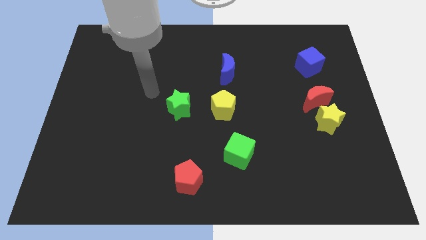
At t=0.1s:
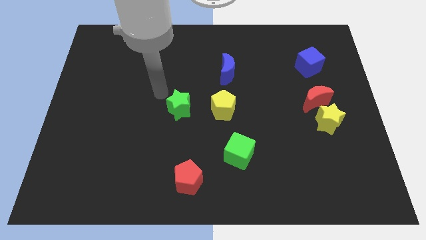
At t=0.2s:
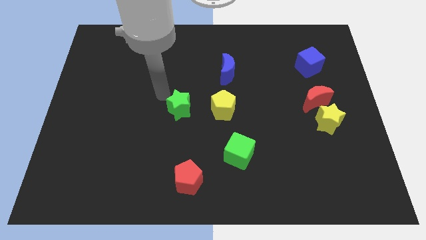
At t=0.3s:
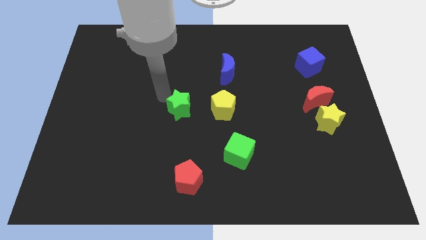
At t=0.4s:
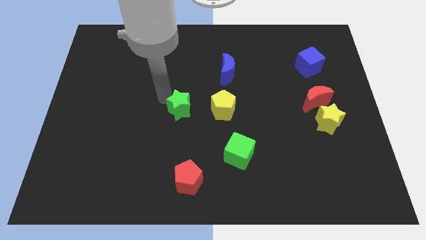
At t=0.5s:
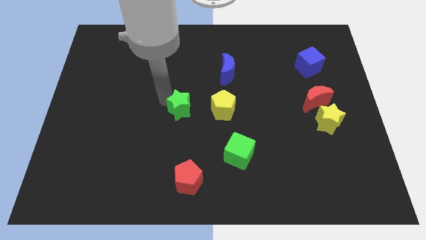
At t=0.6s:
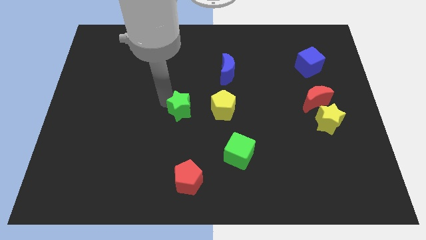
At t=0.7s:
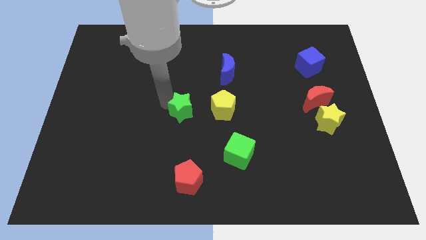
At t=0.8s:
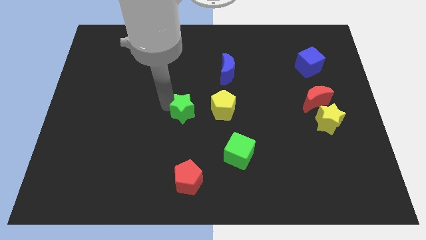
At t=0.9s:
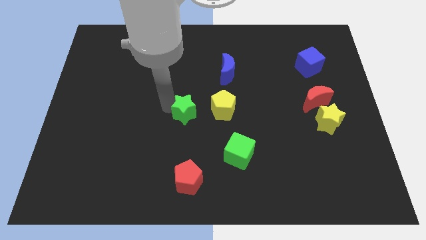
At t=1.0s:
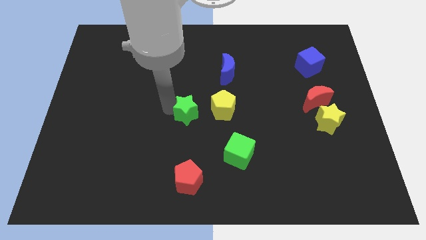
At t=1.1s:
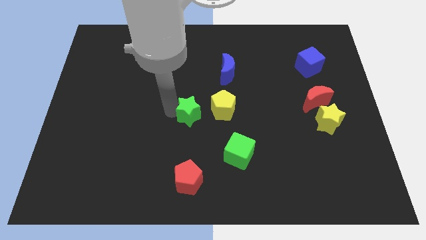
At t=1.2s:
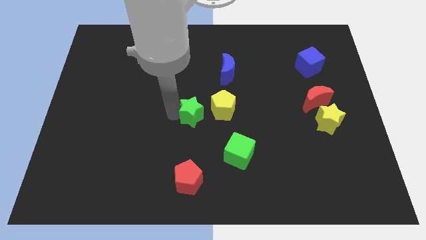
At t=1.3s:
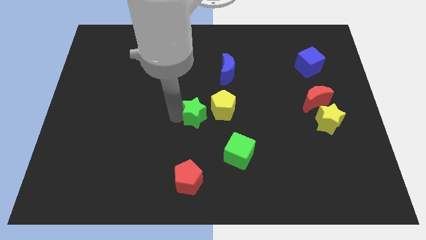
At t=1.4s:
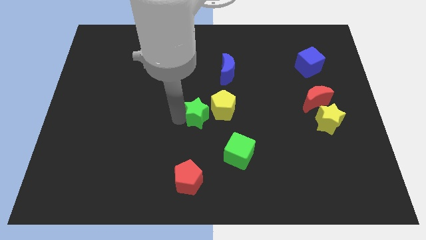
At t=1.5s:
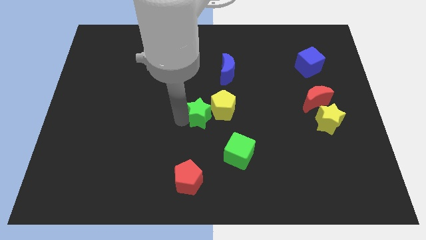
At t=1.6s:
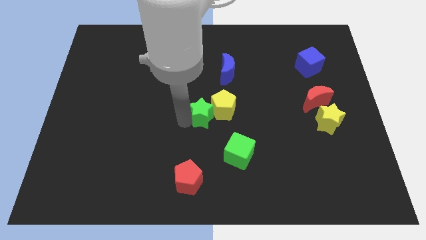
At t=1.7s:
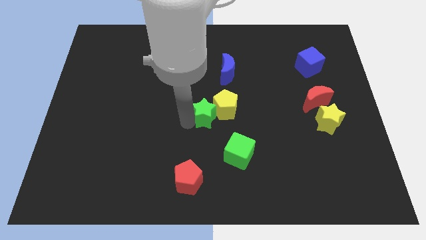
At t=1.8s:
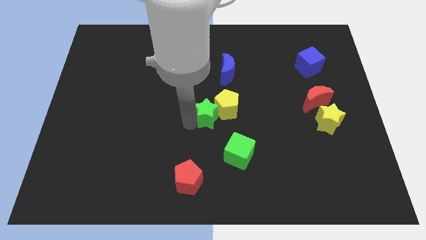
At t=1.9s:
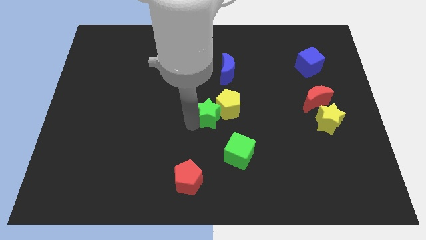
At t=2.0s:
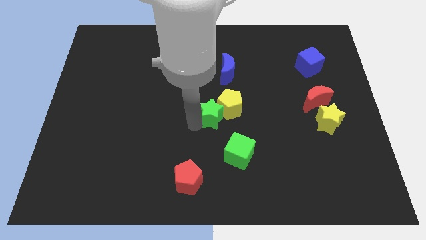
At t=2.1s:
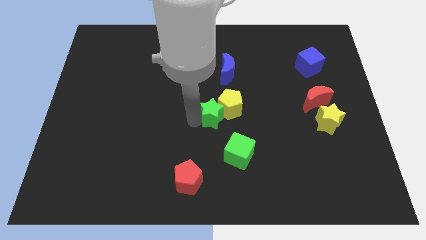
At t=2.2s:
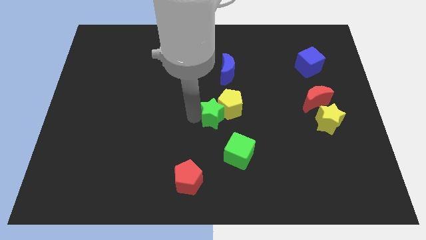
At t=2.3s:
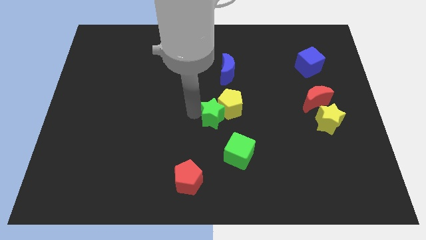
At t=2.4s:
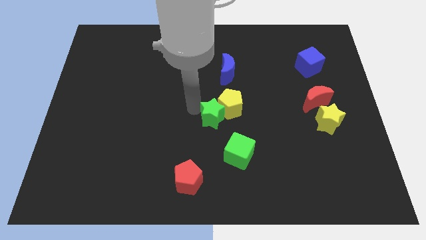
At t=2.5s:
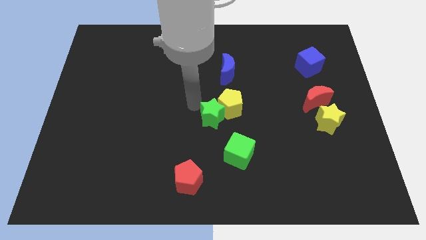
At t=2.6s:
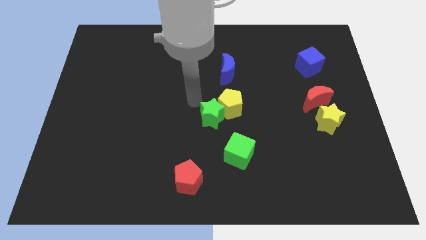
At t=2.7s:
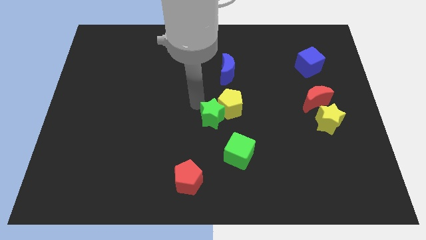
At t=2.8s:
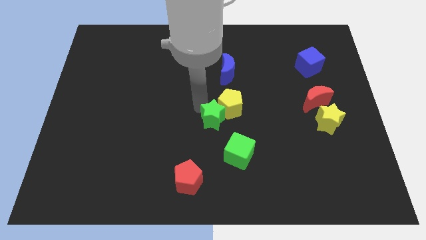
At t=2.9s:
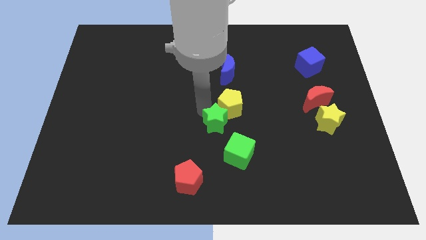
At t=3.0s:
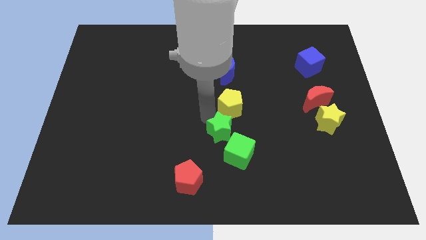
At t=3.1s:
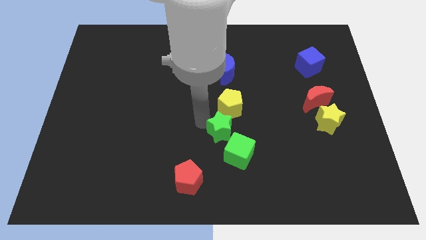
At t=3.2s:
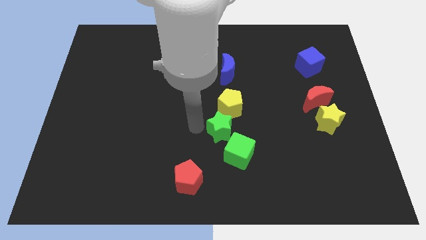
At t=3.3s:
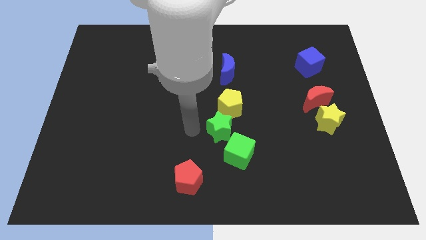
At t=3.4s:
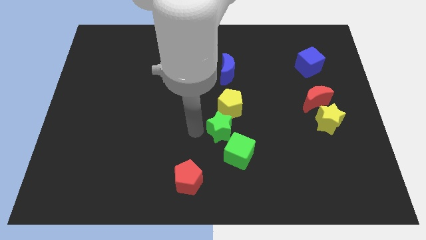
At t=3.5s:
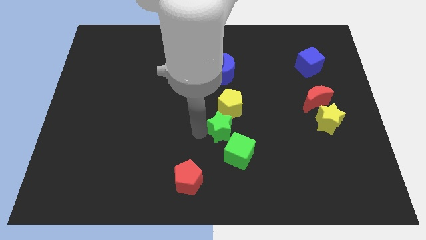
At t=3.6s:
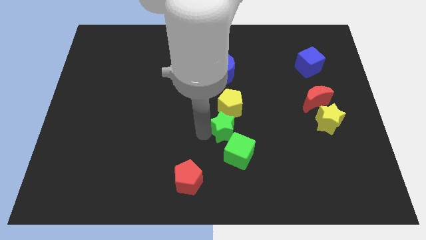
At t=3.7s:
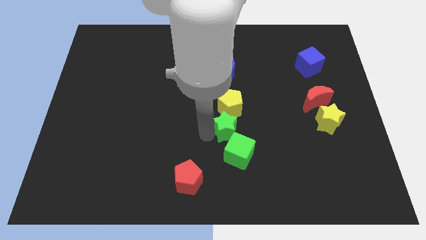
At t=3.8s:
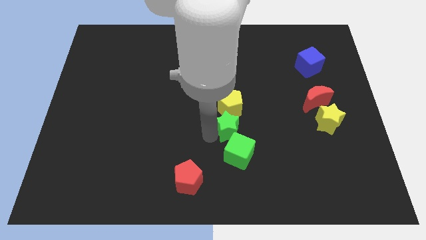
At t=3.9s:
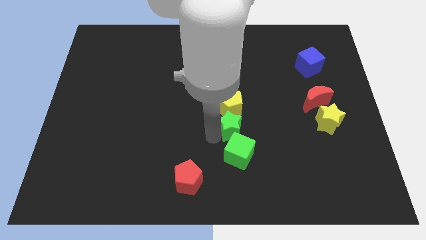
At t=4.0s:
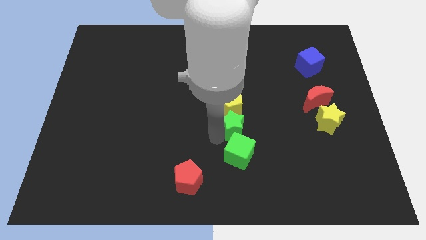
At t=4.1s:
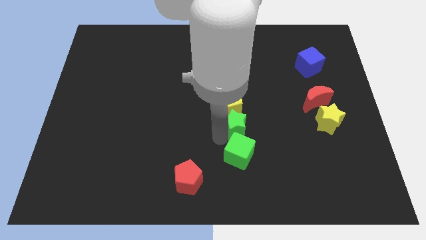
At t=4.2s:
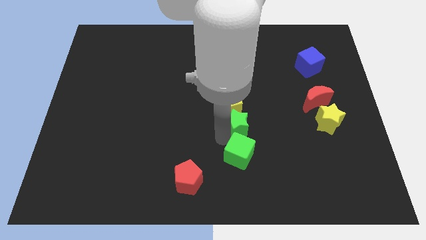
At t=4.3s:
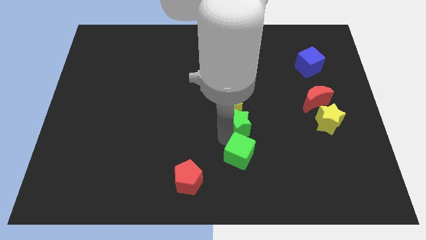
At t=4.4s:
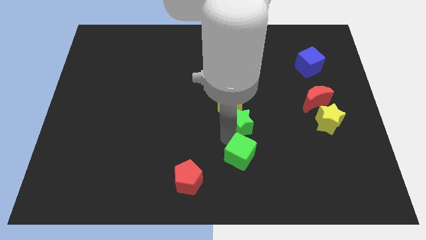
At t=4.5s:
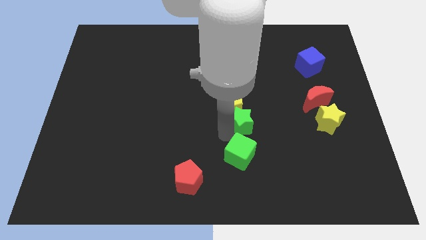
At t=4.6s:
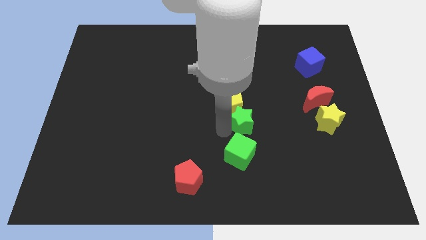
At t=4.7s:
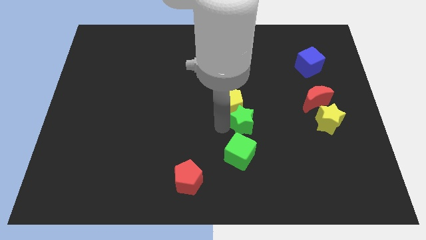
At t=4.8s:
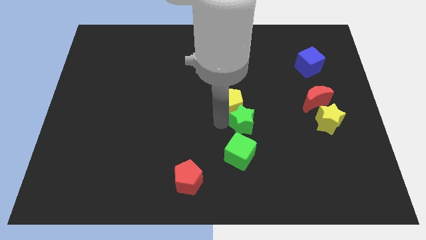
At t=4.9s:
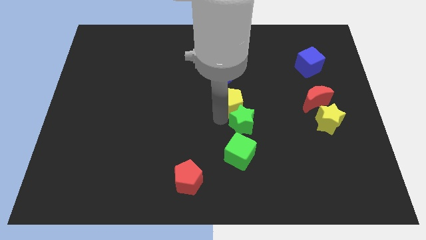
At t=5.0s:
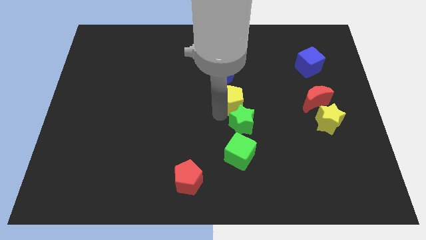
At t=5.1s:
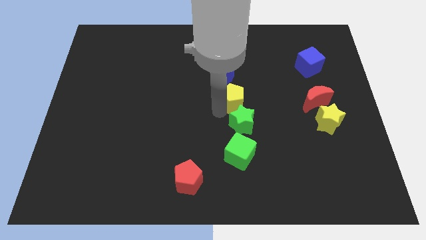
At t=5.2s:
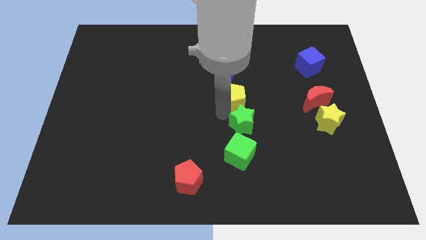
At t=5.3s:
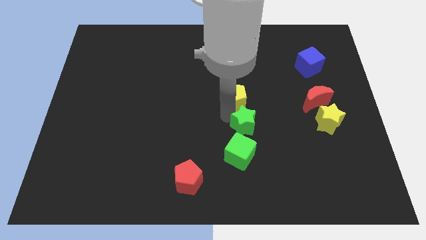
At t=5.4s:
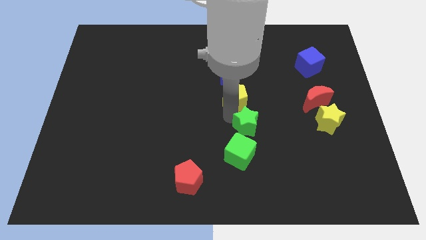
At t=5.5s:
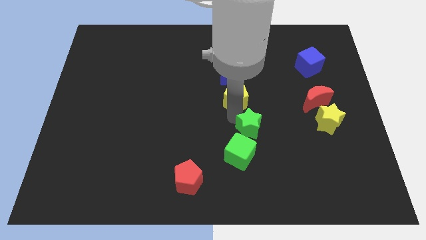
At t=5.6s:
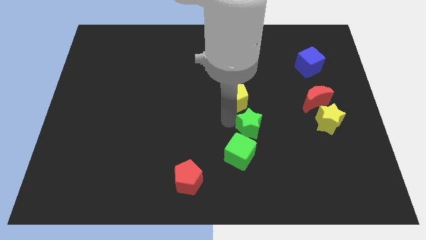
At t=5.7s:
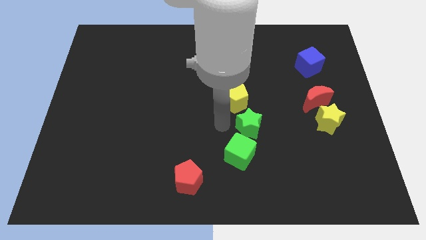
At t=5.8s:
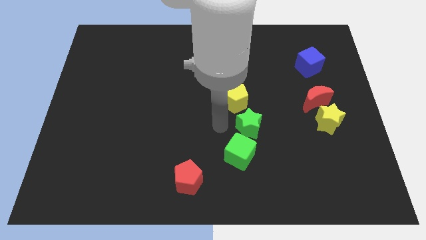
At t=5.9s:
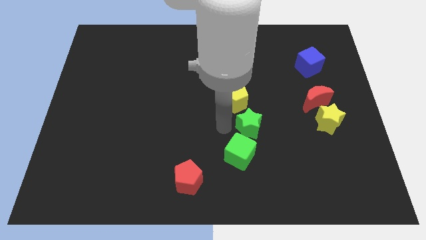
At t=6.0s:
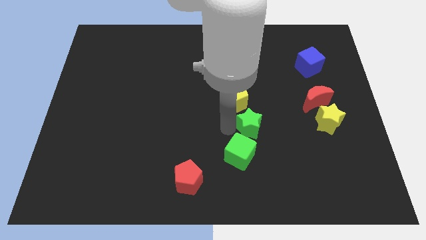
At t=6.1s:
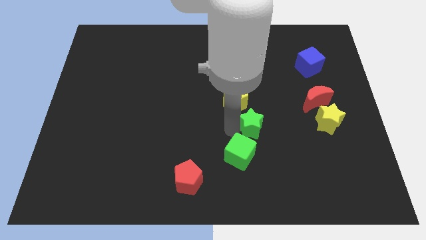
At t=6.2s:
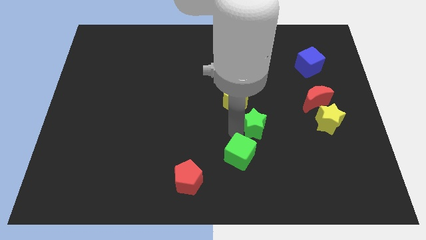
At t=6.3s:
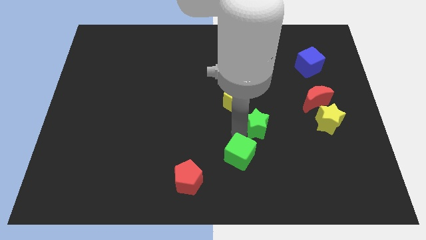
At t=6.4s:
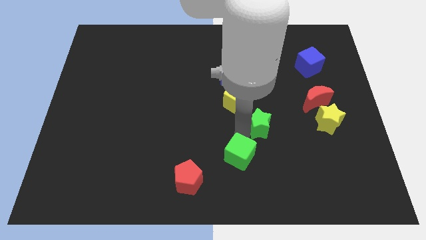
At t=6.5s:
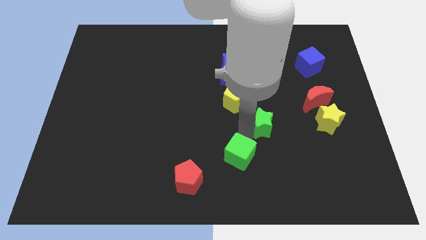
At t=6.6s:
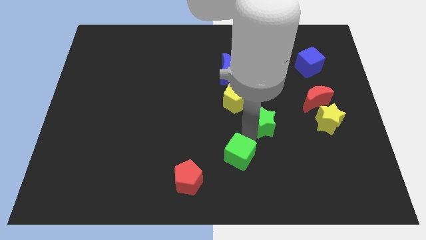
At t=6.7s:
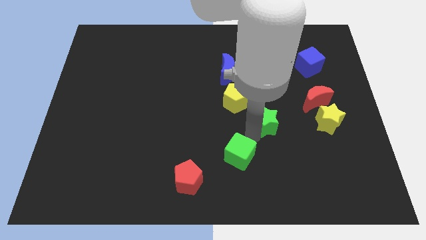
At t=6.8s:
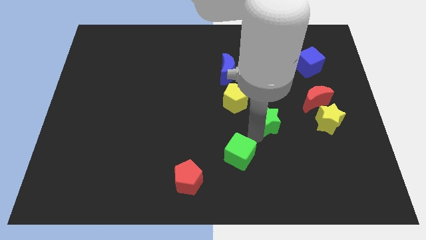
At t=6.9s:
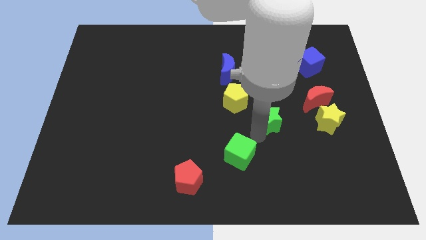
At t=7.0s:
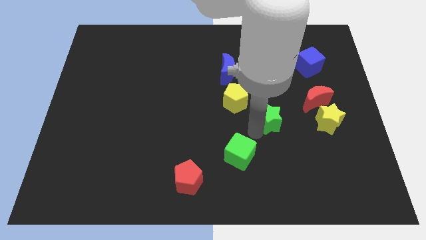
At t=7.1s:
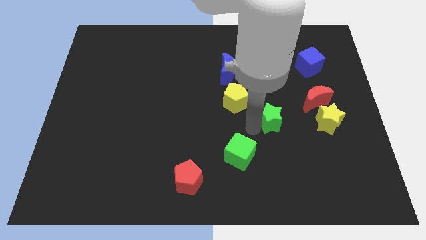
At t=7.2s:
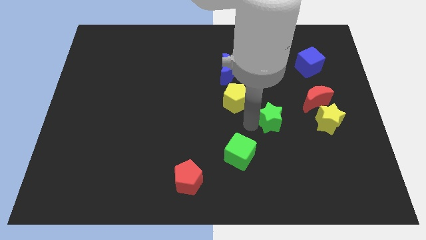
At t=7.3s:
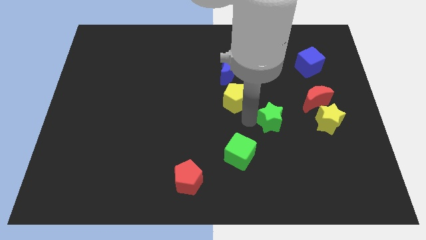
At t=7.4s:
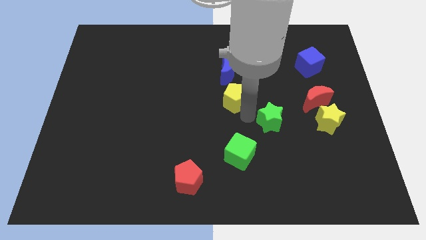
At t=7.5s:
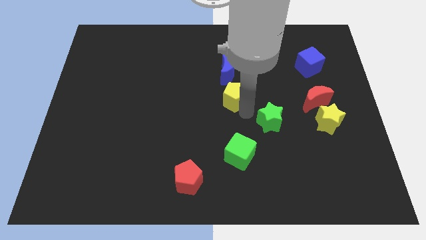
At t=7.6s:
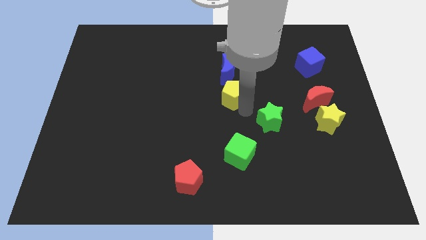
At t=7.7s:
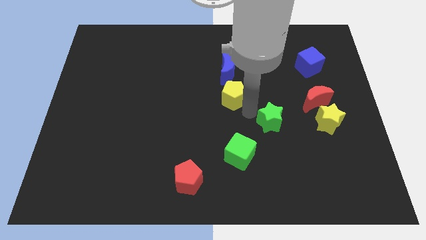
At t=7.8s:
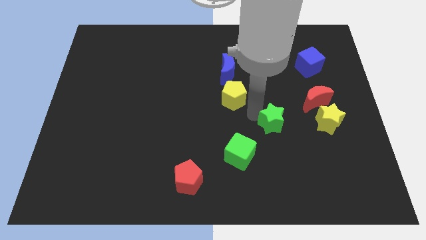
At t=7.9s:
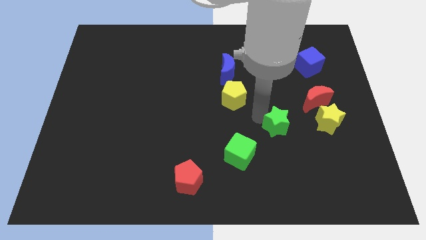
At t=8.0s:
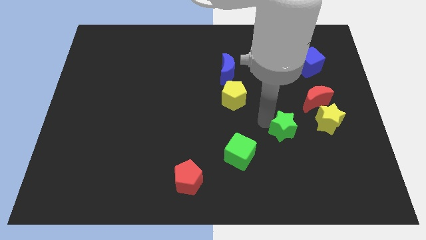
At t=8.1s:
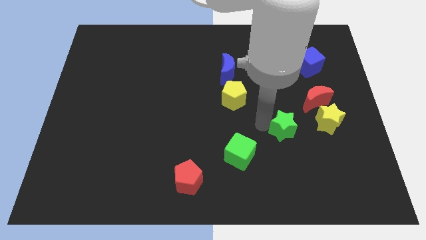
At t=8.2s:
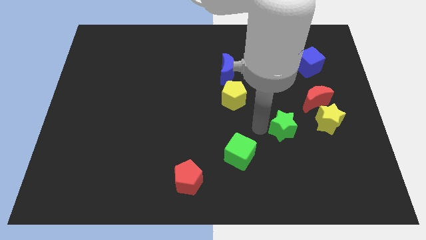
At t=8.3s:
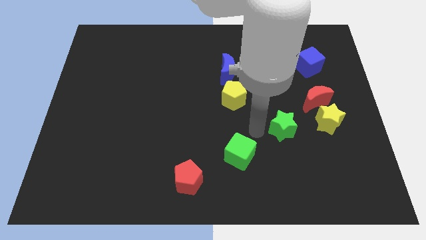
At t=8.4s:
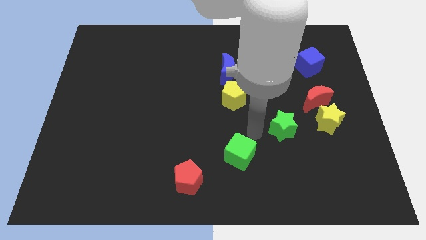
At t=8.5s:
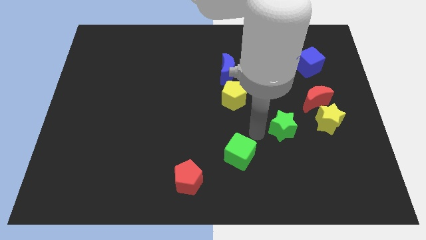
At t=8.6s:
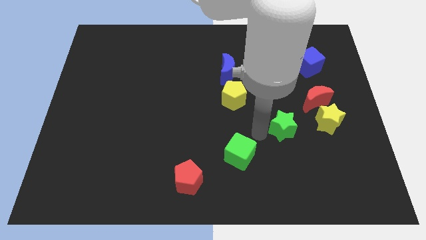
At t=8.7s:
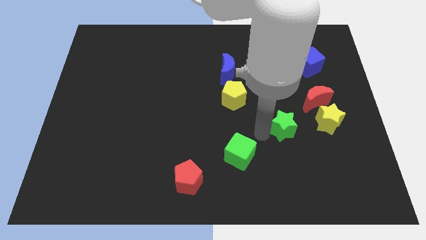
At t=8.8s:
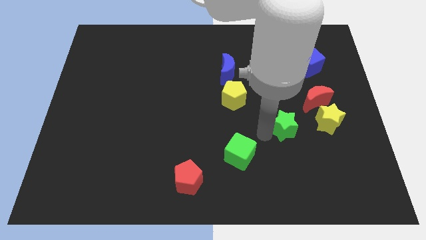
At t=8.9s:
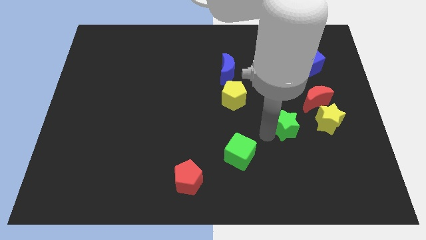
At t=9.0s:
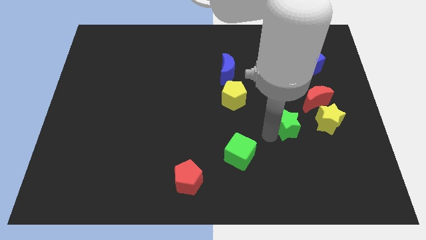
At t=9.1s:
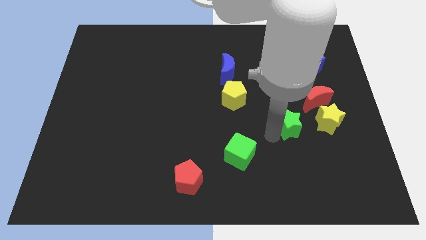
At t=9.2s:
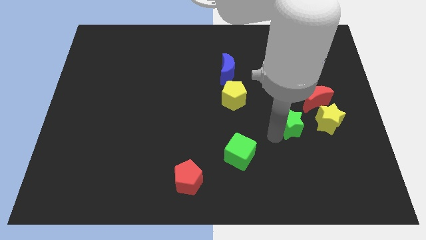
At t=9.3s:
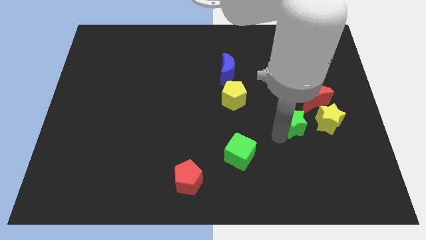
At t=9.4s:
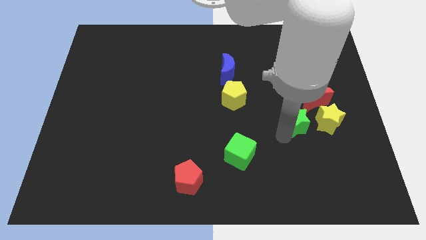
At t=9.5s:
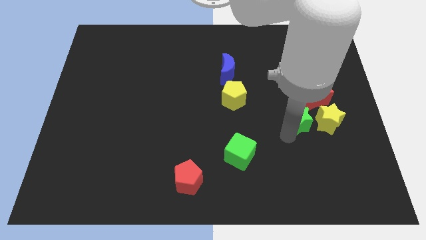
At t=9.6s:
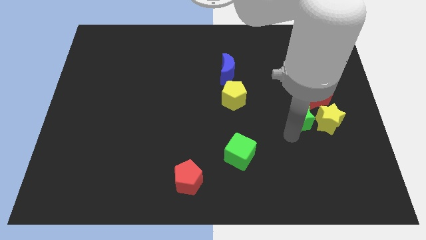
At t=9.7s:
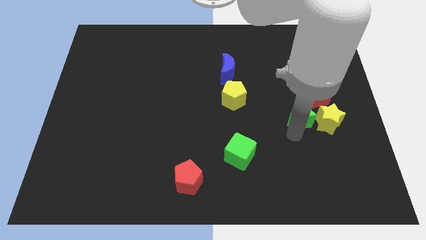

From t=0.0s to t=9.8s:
slide the green star towards the yellow star
